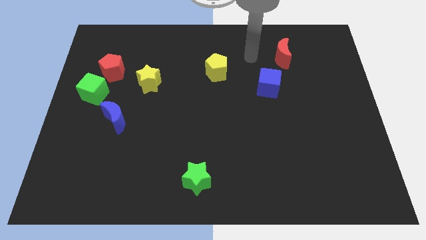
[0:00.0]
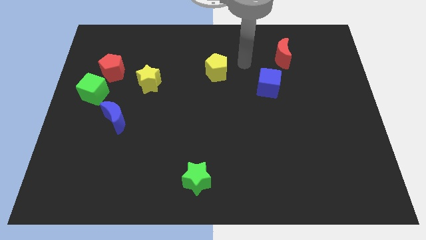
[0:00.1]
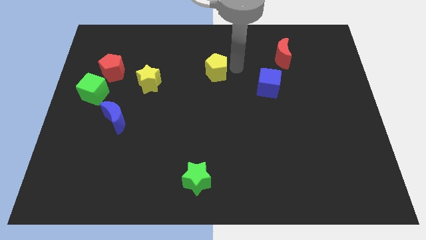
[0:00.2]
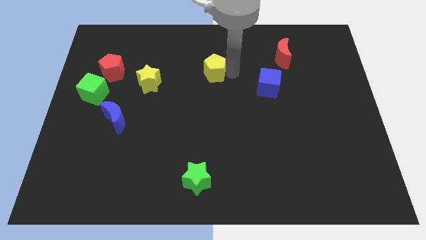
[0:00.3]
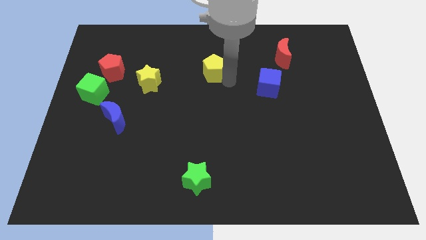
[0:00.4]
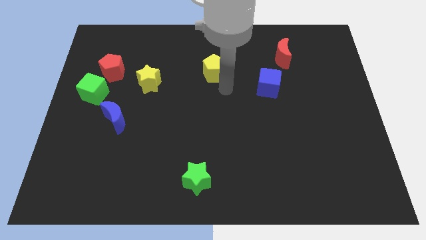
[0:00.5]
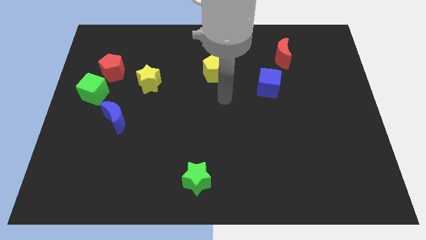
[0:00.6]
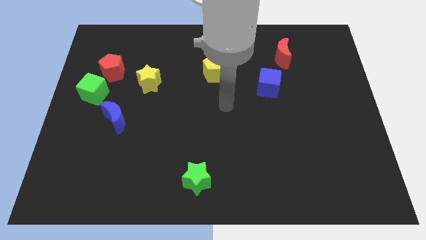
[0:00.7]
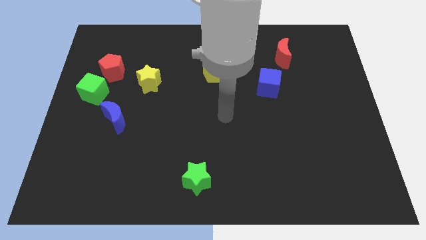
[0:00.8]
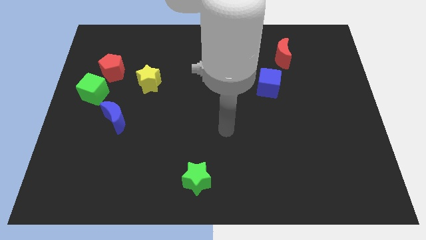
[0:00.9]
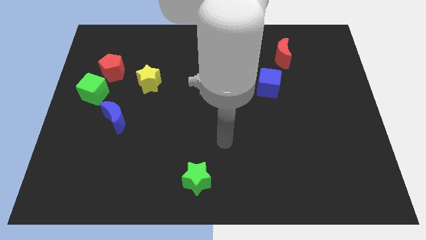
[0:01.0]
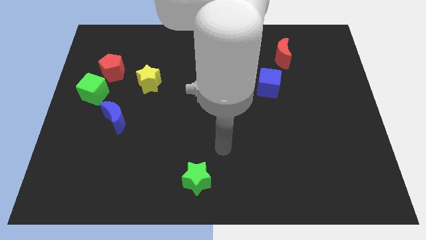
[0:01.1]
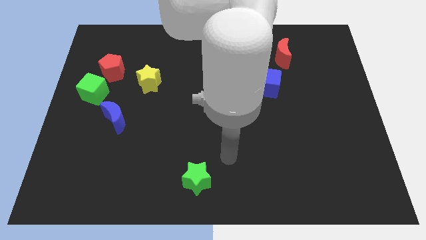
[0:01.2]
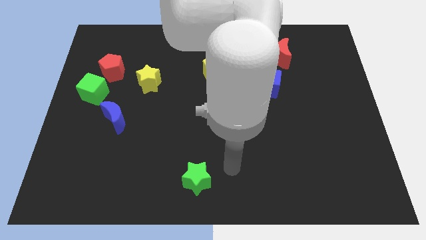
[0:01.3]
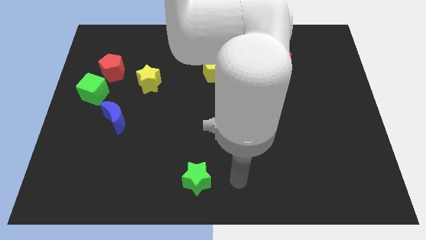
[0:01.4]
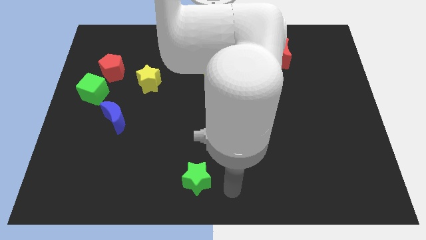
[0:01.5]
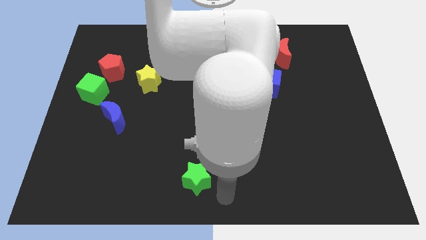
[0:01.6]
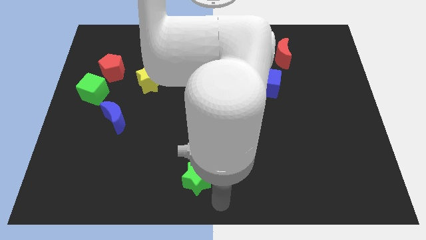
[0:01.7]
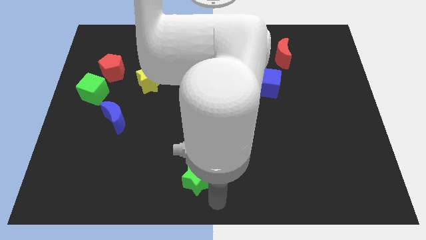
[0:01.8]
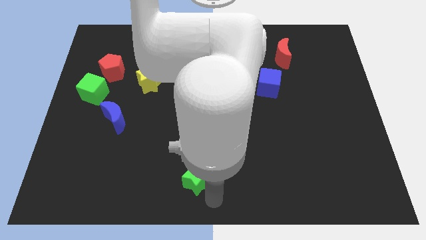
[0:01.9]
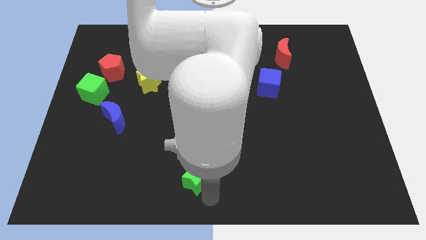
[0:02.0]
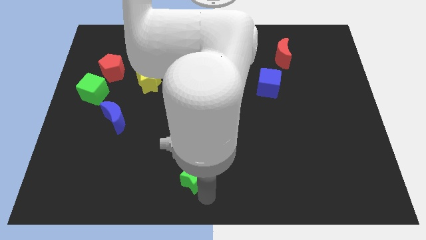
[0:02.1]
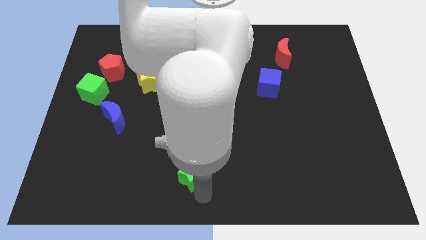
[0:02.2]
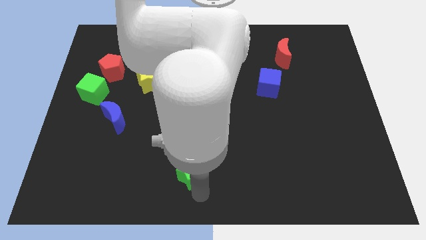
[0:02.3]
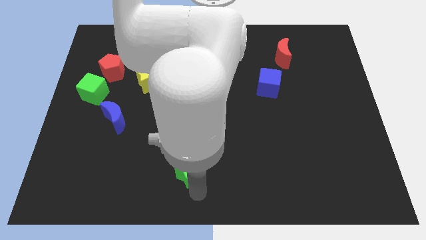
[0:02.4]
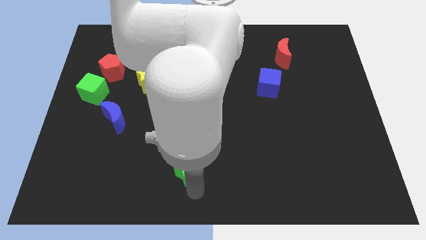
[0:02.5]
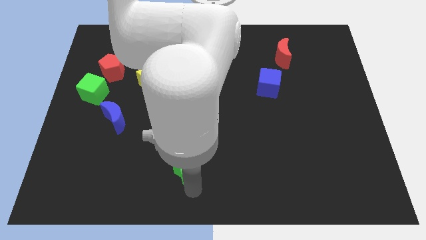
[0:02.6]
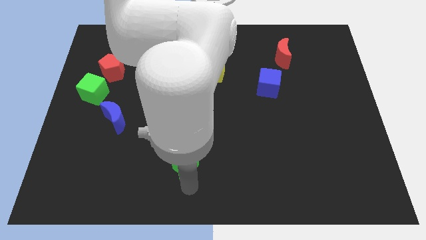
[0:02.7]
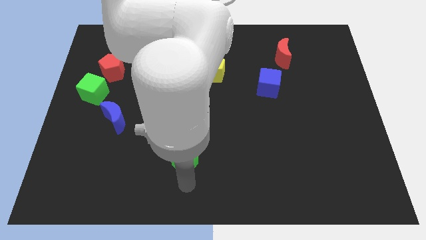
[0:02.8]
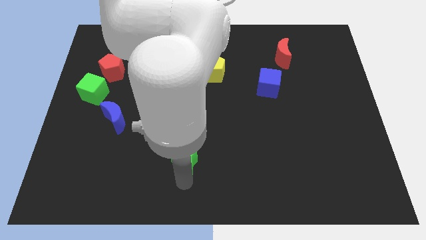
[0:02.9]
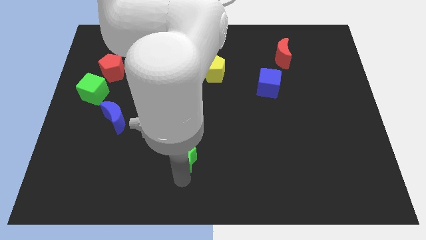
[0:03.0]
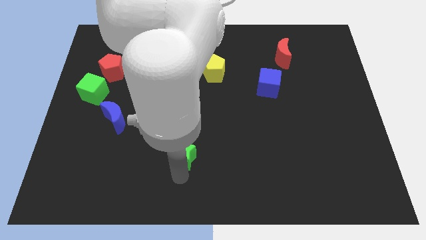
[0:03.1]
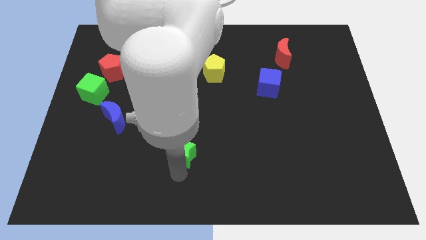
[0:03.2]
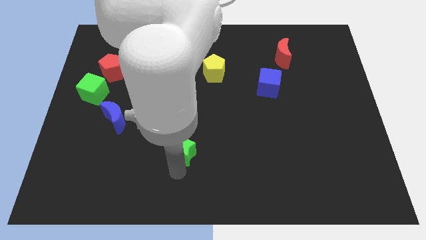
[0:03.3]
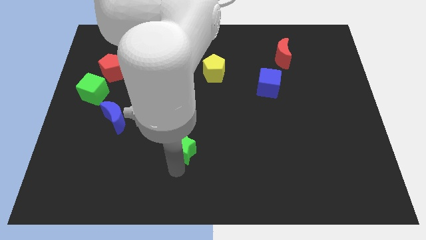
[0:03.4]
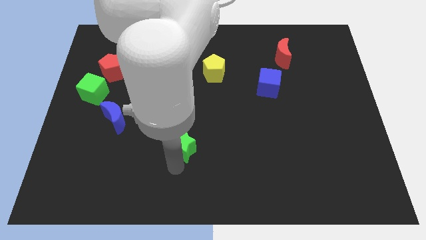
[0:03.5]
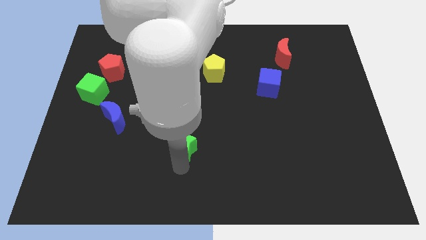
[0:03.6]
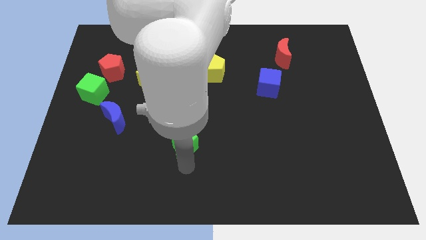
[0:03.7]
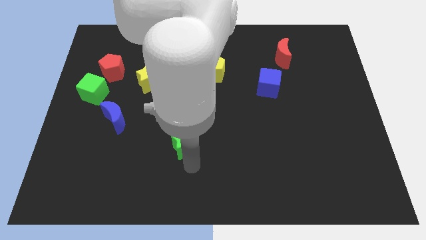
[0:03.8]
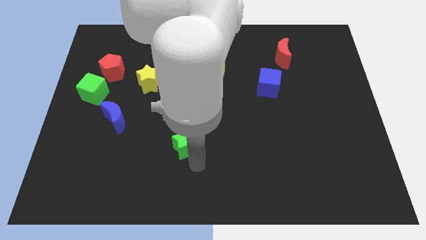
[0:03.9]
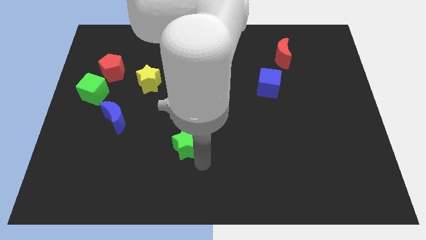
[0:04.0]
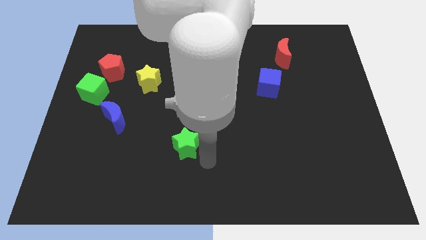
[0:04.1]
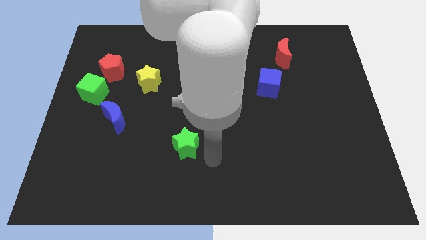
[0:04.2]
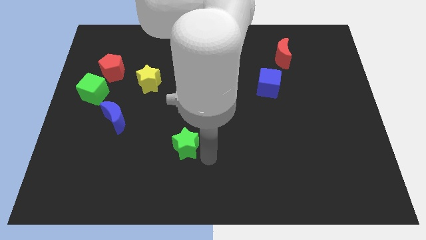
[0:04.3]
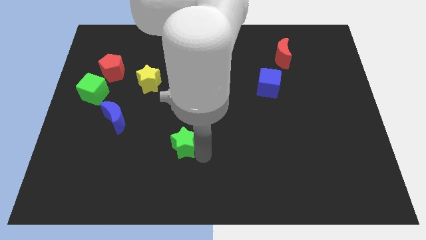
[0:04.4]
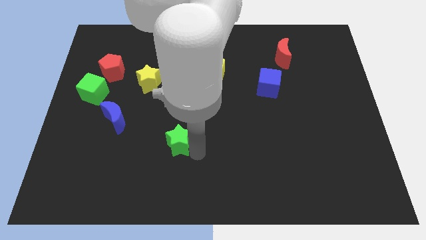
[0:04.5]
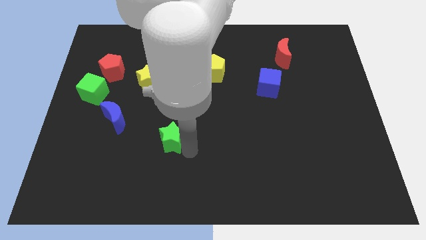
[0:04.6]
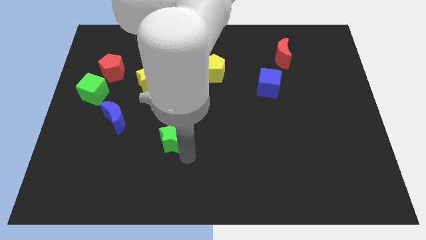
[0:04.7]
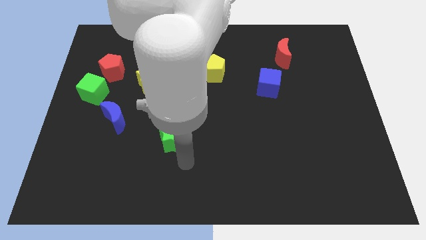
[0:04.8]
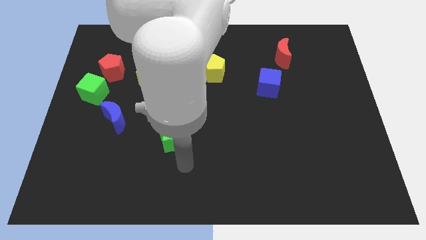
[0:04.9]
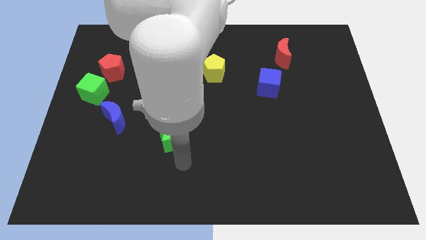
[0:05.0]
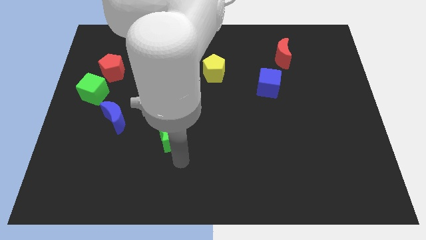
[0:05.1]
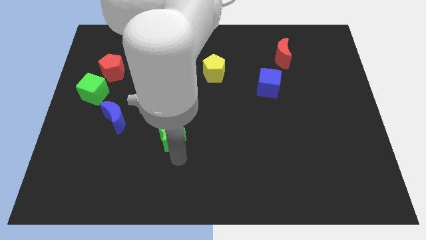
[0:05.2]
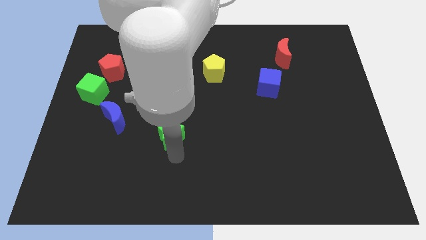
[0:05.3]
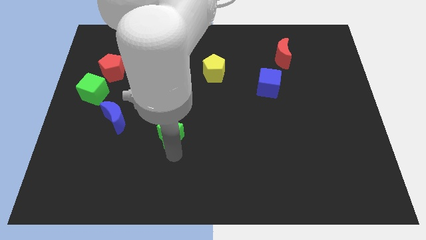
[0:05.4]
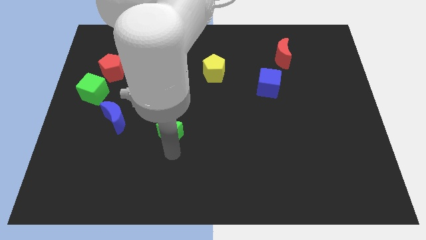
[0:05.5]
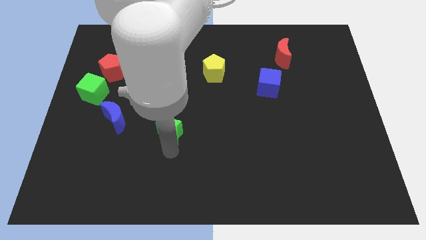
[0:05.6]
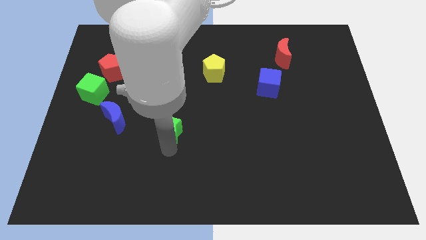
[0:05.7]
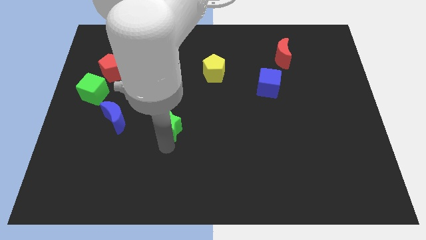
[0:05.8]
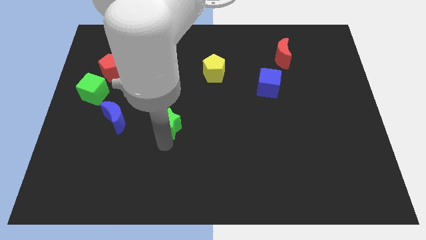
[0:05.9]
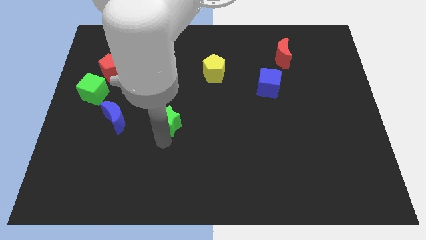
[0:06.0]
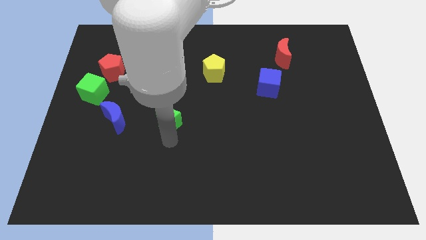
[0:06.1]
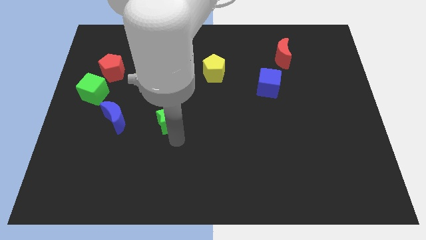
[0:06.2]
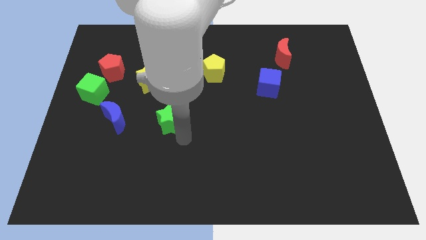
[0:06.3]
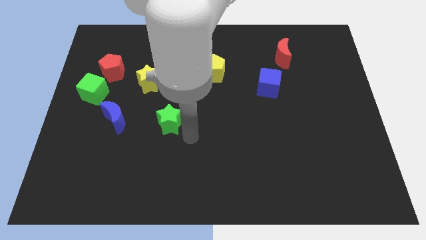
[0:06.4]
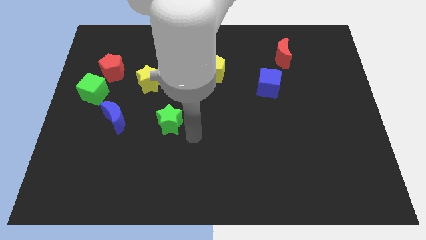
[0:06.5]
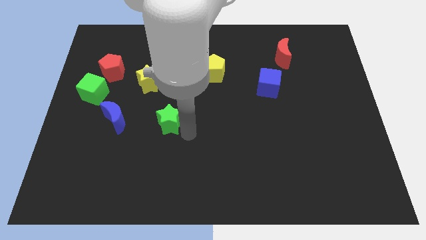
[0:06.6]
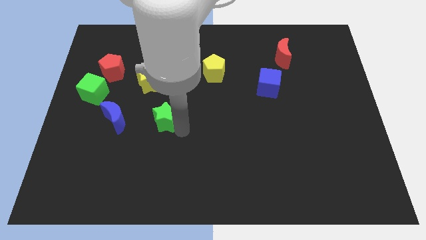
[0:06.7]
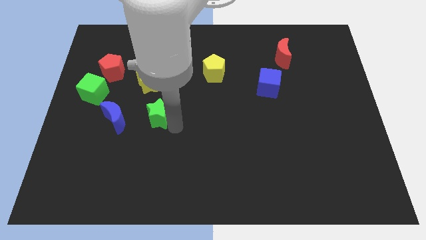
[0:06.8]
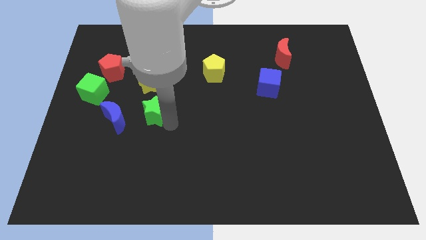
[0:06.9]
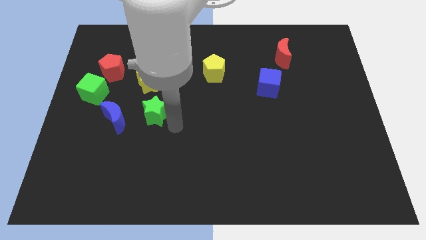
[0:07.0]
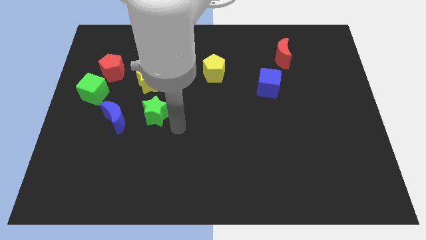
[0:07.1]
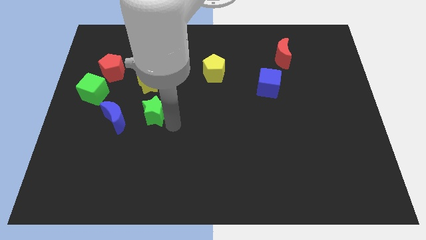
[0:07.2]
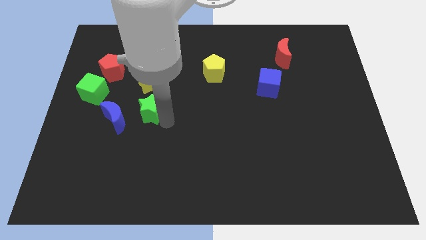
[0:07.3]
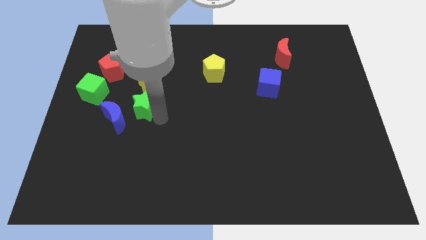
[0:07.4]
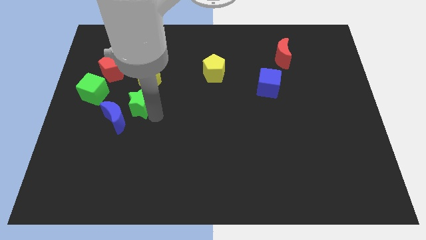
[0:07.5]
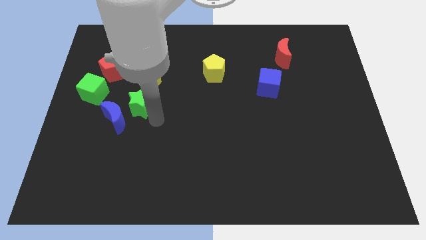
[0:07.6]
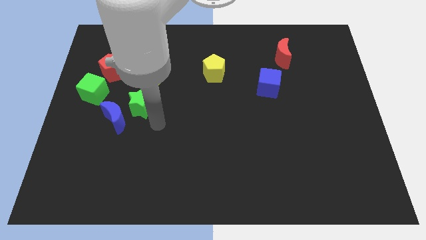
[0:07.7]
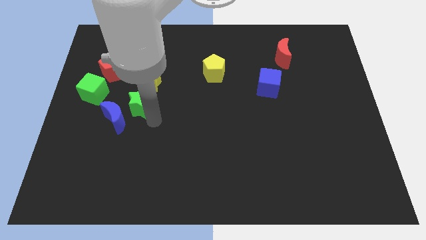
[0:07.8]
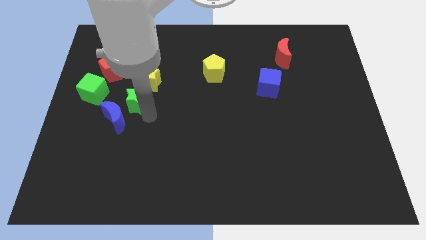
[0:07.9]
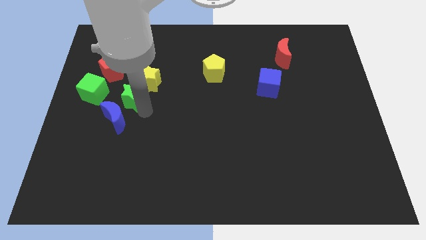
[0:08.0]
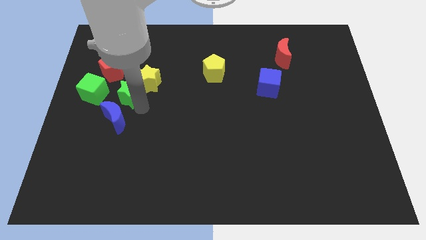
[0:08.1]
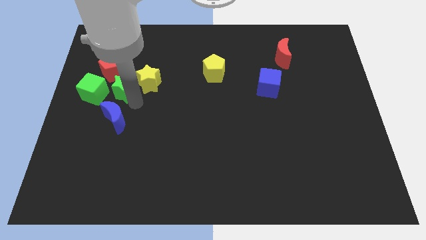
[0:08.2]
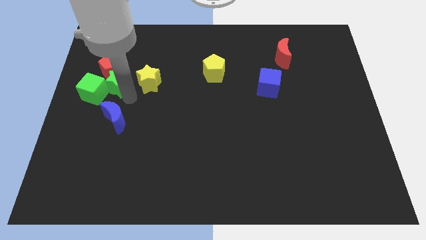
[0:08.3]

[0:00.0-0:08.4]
push the green star next to the red pentagon
